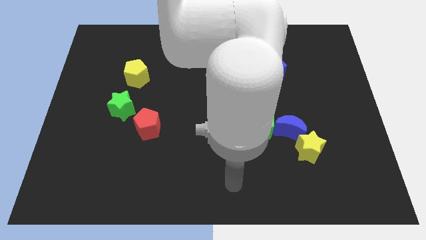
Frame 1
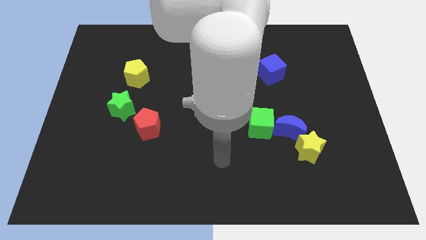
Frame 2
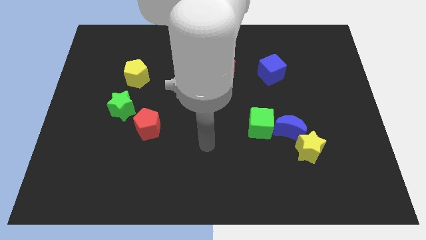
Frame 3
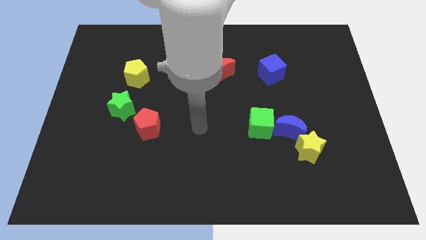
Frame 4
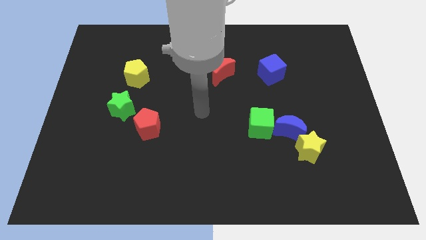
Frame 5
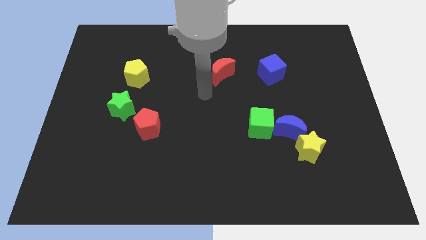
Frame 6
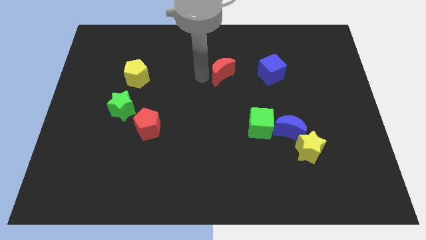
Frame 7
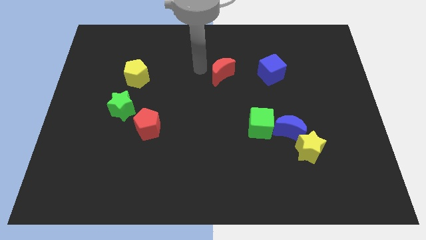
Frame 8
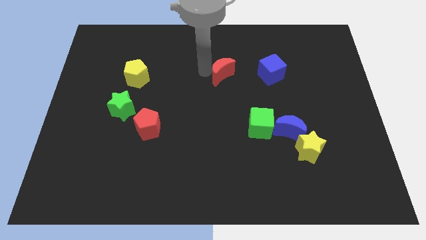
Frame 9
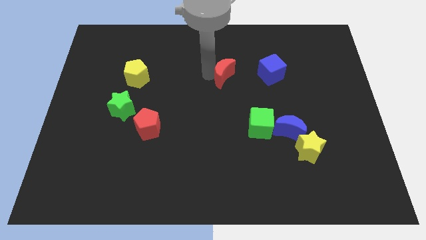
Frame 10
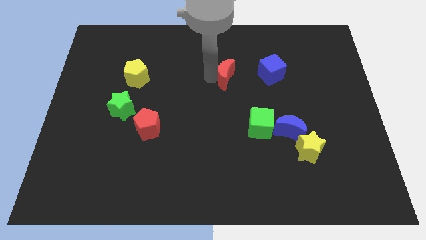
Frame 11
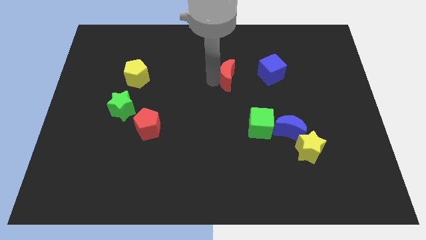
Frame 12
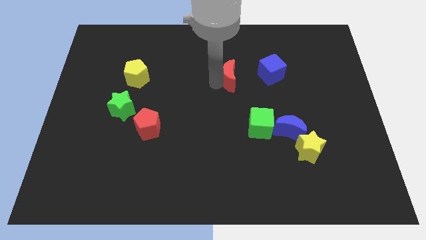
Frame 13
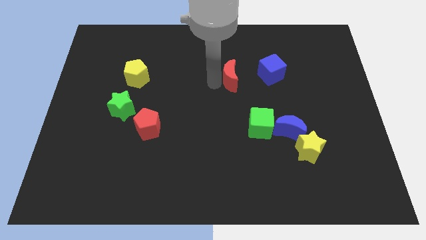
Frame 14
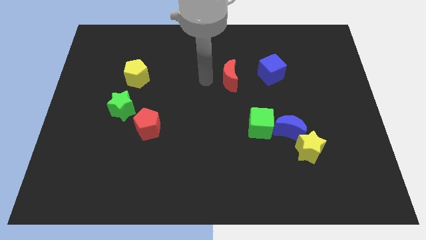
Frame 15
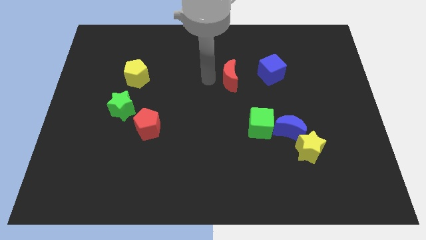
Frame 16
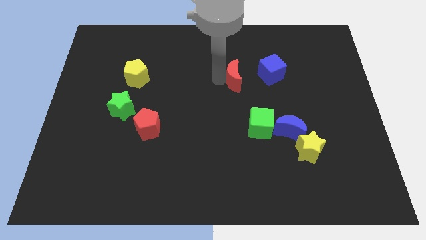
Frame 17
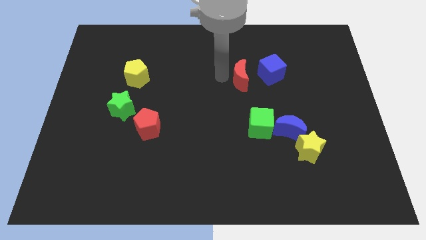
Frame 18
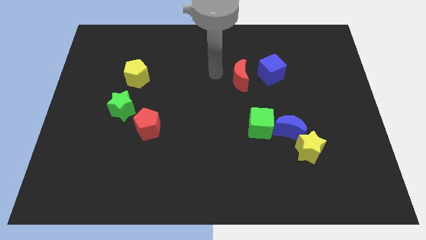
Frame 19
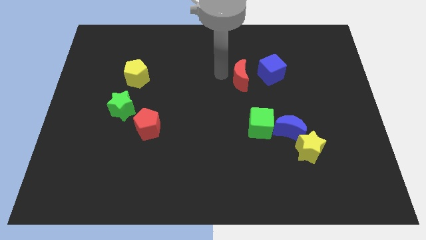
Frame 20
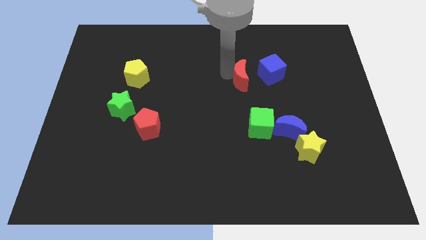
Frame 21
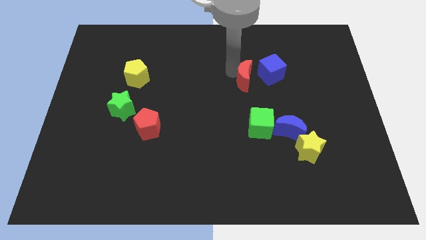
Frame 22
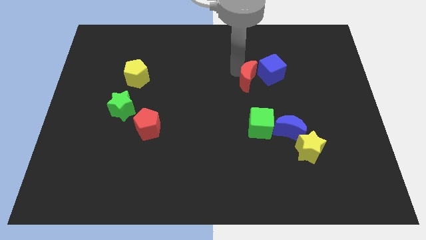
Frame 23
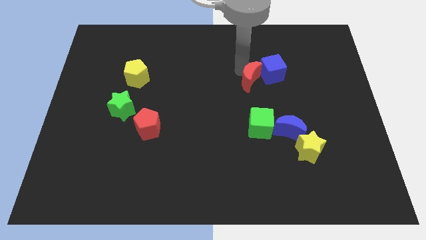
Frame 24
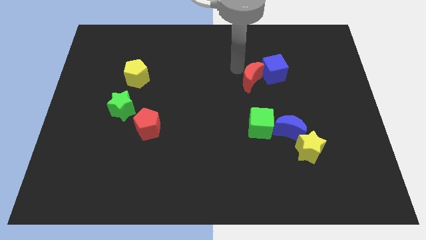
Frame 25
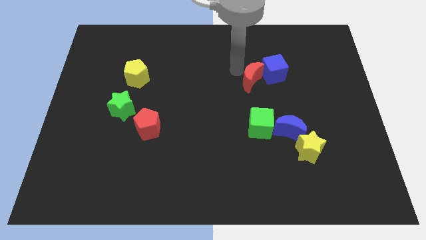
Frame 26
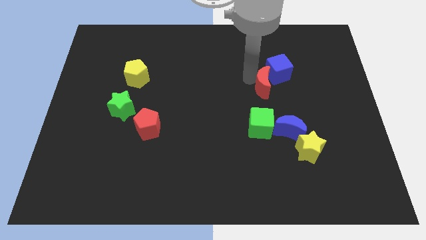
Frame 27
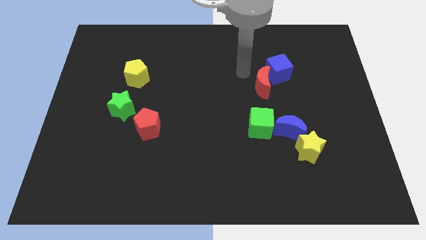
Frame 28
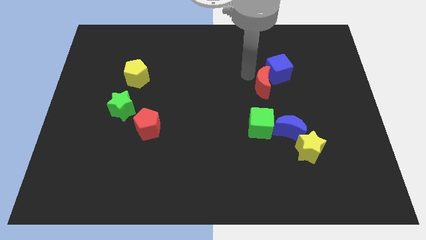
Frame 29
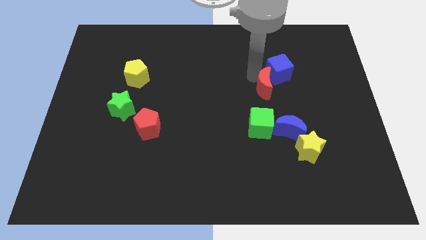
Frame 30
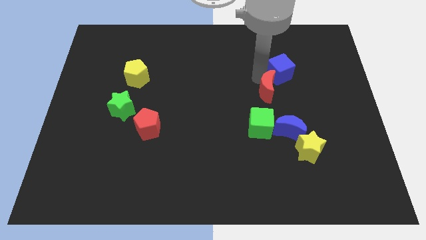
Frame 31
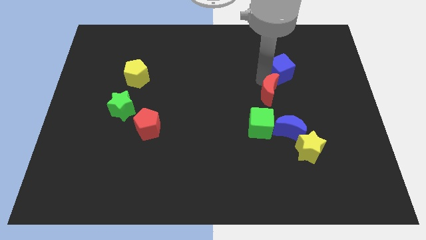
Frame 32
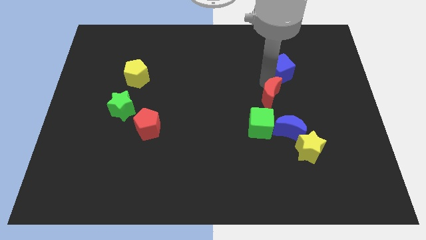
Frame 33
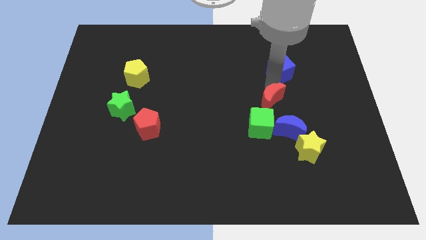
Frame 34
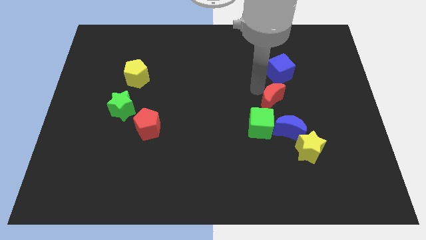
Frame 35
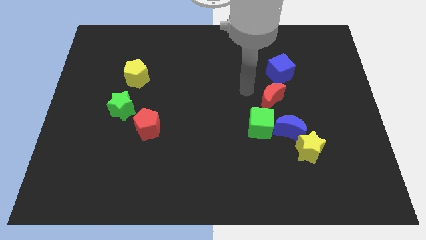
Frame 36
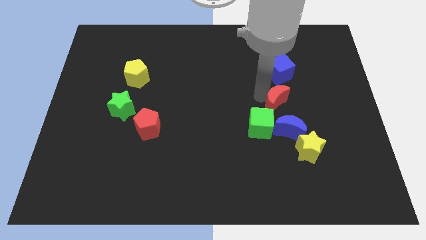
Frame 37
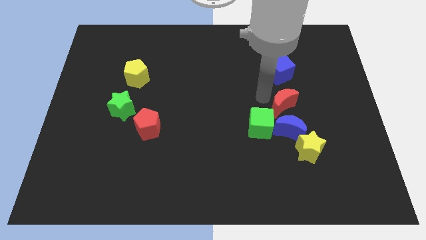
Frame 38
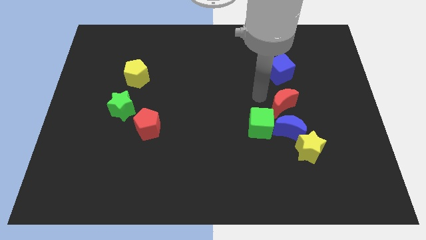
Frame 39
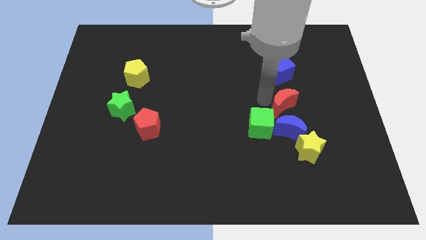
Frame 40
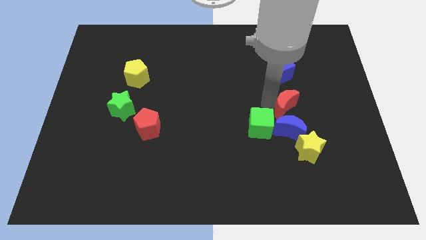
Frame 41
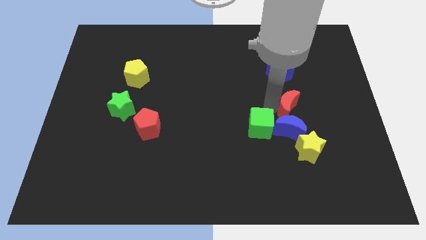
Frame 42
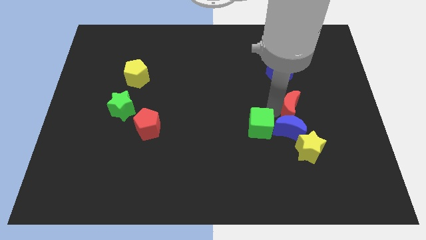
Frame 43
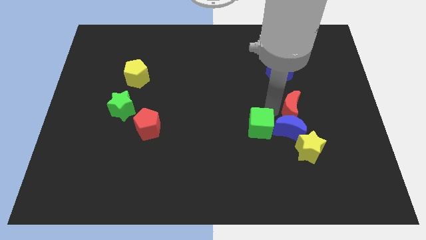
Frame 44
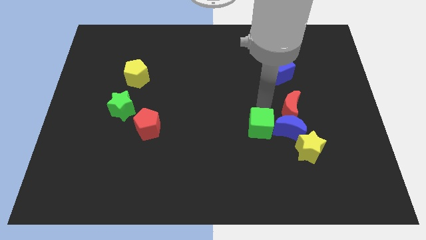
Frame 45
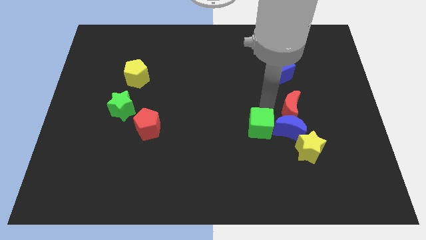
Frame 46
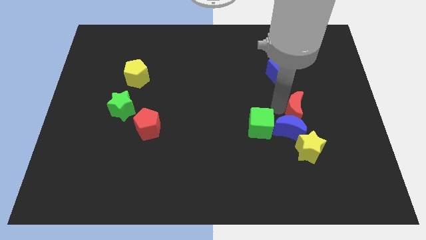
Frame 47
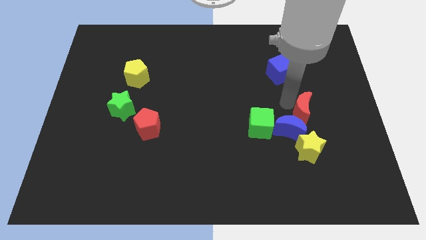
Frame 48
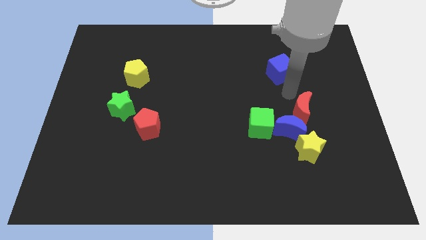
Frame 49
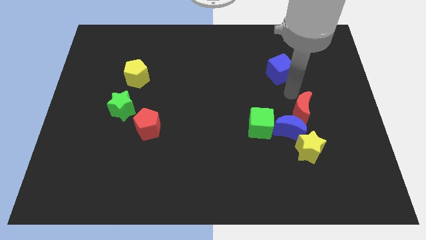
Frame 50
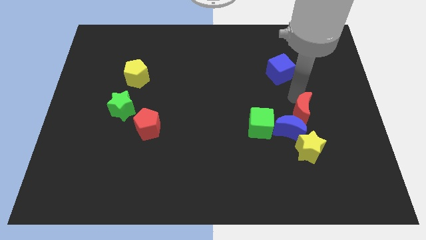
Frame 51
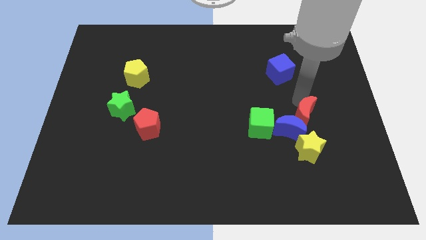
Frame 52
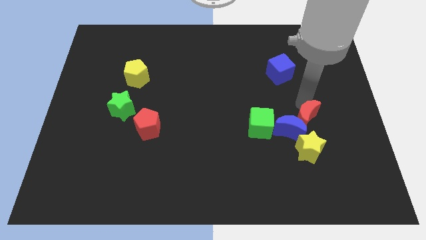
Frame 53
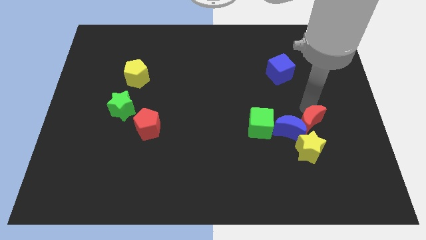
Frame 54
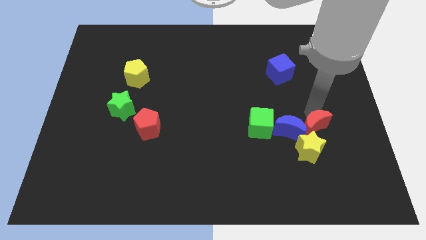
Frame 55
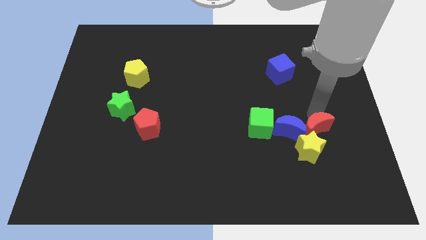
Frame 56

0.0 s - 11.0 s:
put the red moon next to the yellow star
